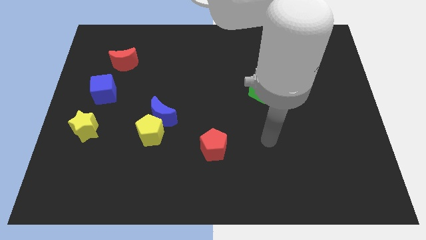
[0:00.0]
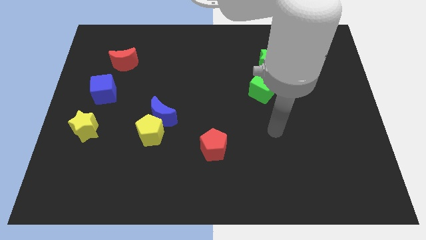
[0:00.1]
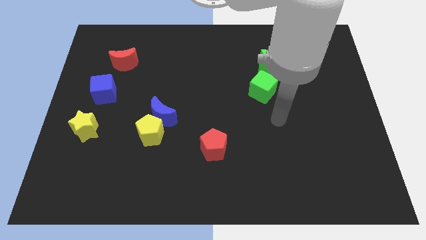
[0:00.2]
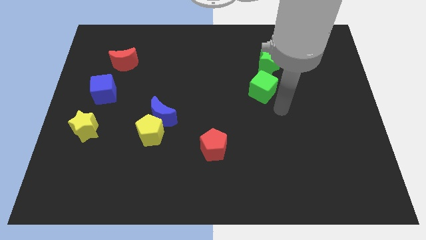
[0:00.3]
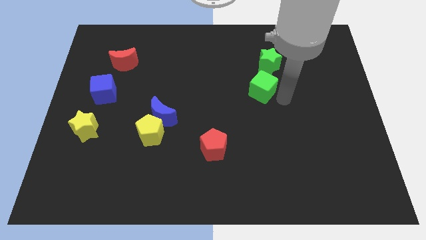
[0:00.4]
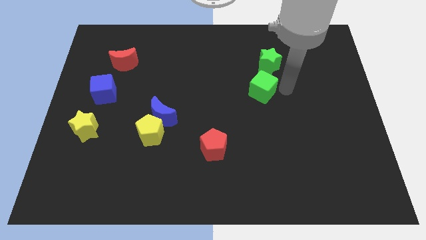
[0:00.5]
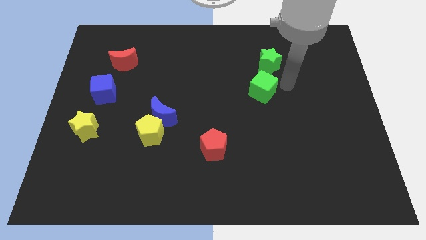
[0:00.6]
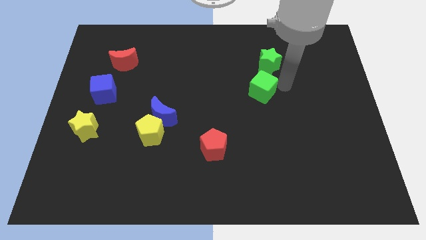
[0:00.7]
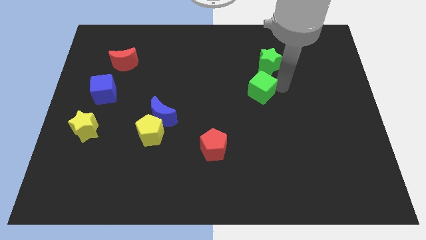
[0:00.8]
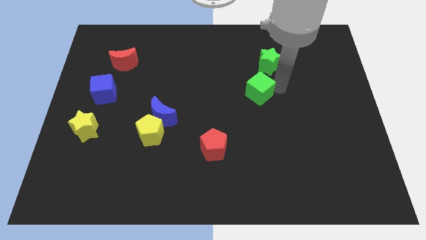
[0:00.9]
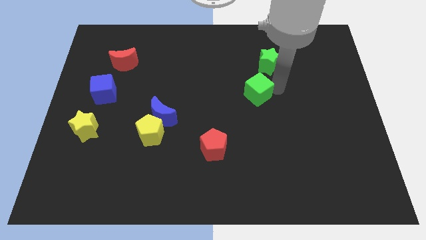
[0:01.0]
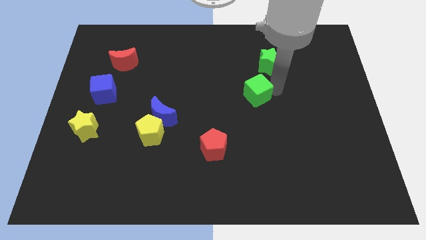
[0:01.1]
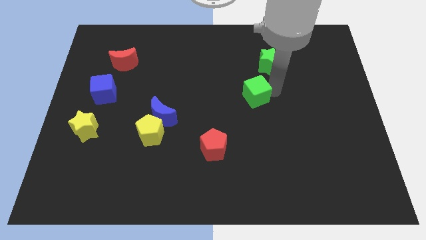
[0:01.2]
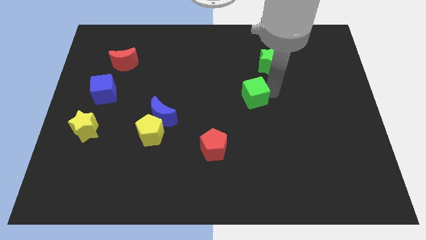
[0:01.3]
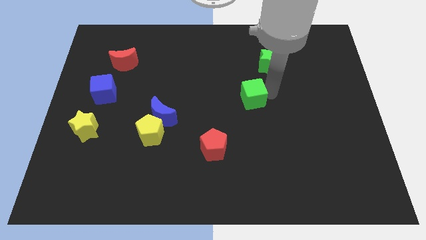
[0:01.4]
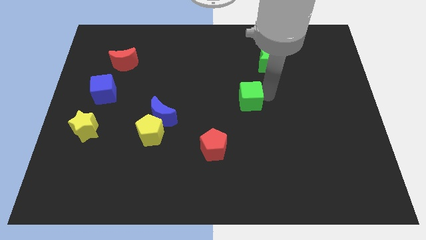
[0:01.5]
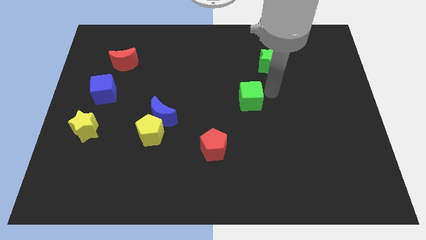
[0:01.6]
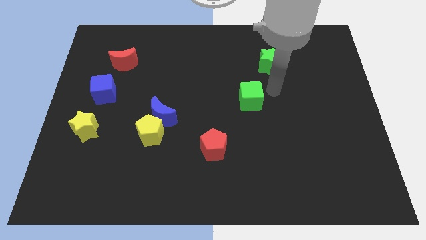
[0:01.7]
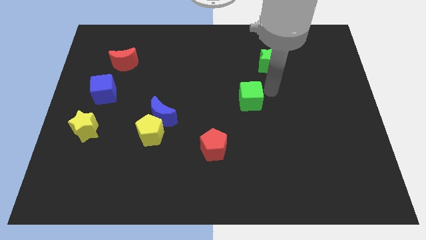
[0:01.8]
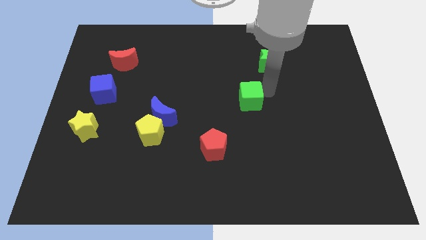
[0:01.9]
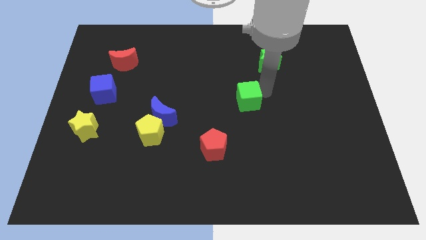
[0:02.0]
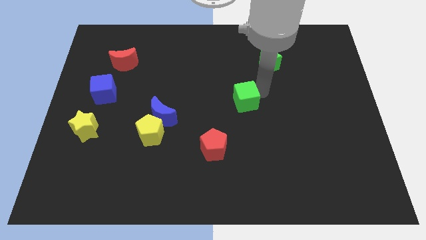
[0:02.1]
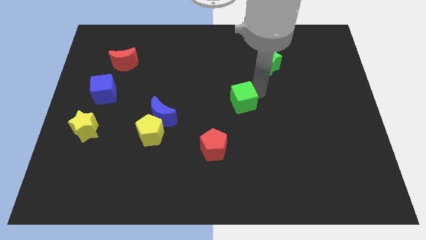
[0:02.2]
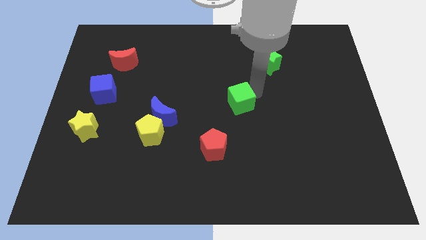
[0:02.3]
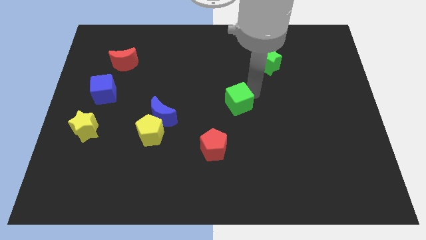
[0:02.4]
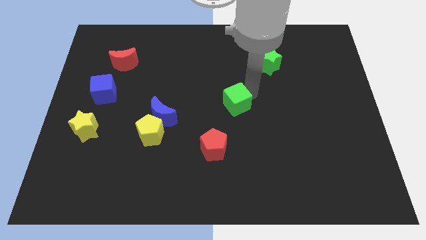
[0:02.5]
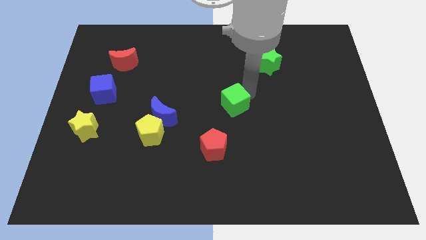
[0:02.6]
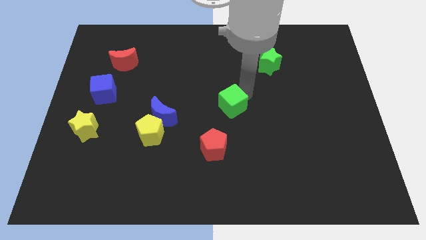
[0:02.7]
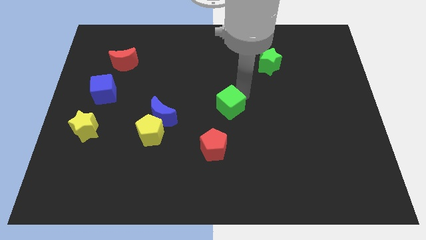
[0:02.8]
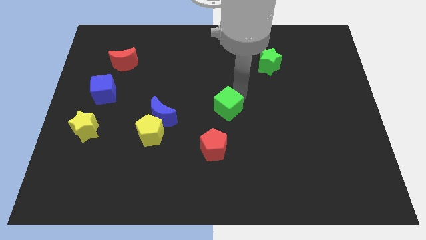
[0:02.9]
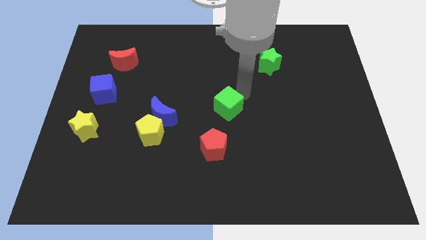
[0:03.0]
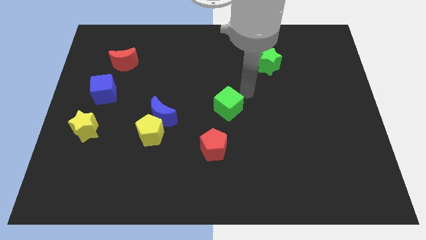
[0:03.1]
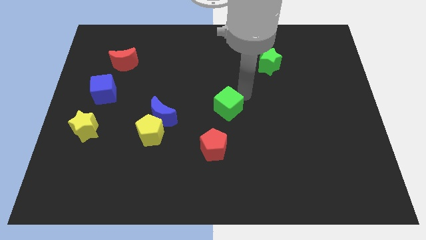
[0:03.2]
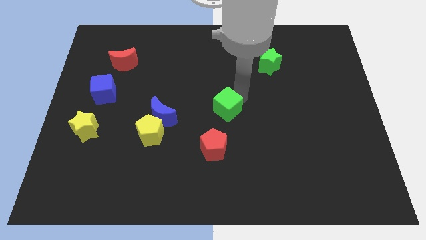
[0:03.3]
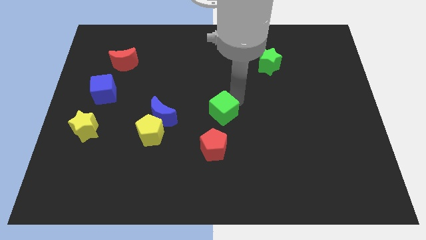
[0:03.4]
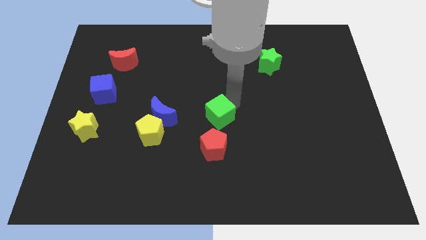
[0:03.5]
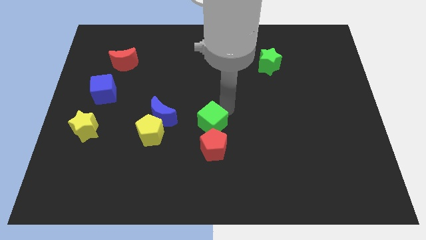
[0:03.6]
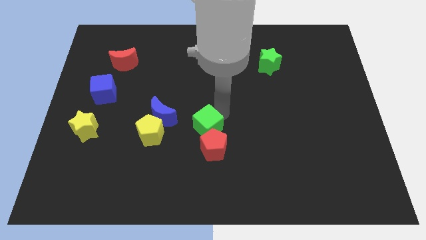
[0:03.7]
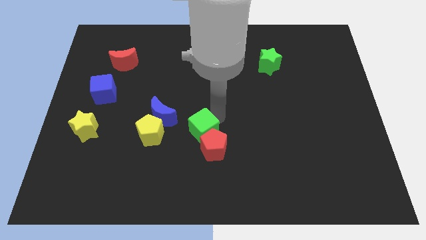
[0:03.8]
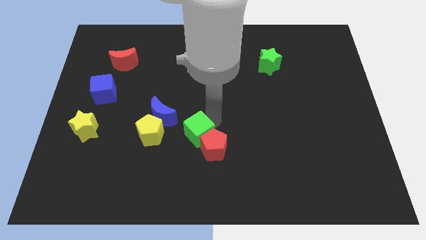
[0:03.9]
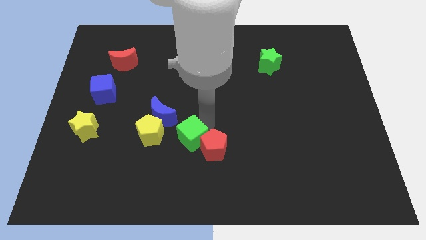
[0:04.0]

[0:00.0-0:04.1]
push the green cube down and then left

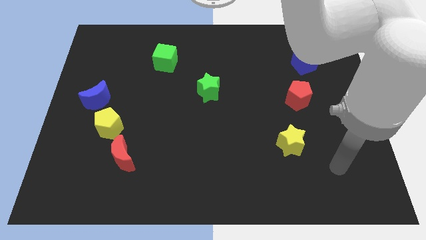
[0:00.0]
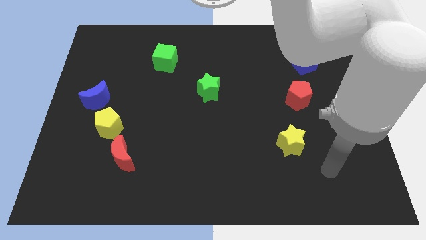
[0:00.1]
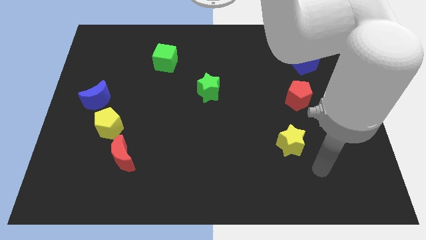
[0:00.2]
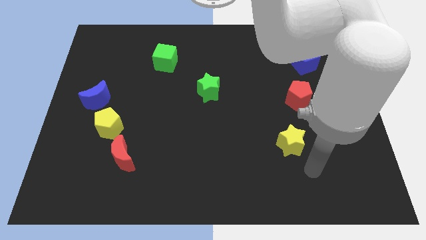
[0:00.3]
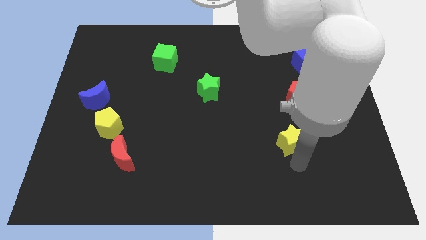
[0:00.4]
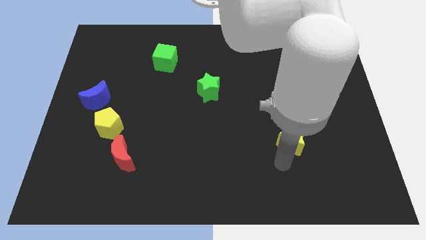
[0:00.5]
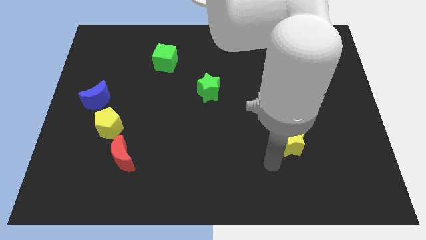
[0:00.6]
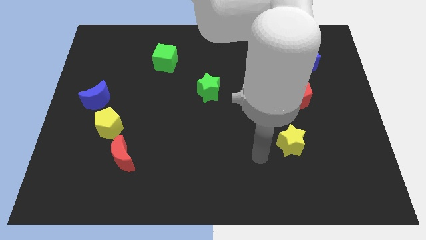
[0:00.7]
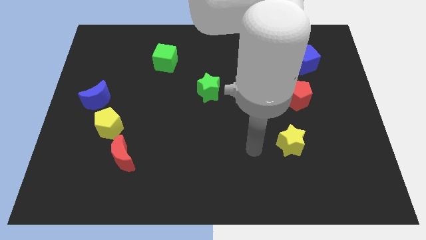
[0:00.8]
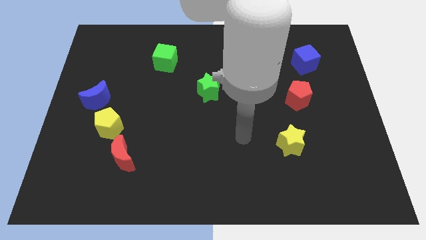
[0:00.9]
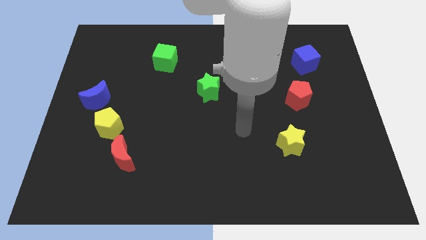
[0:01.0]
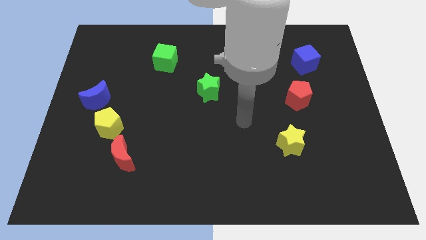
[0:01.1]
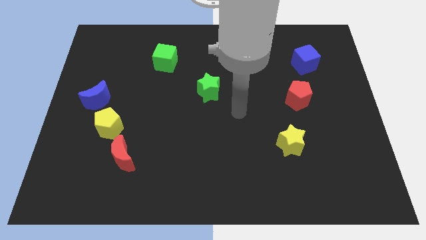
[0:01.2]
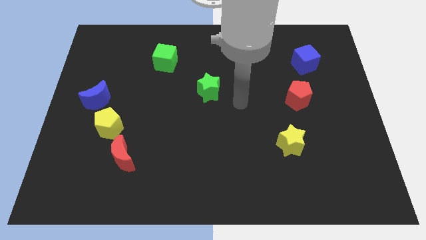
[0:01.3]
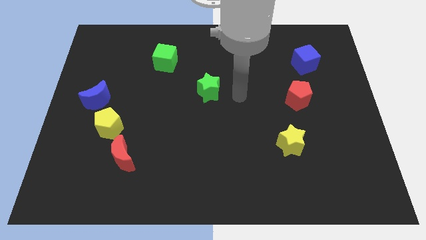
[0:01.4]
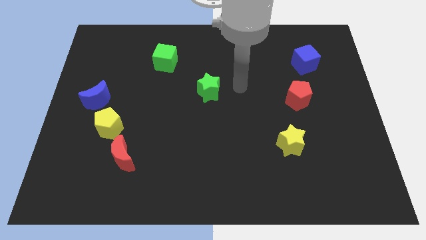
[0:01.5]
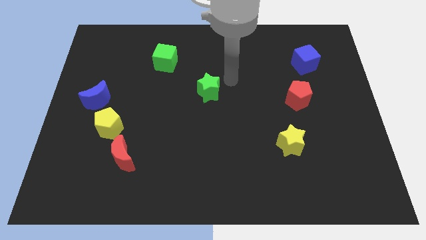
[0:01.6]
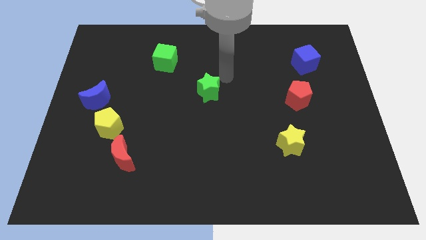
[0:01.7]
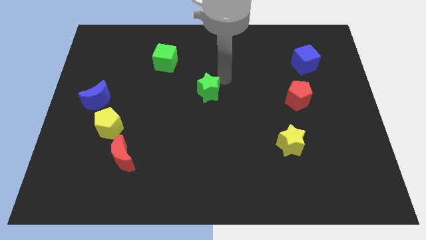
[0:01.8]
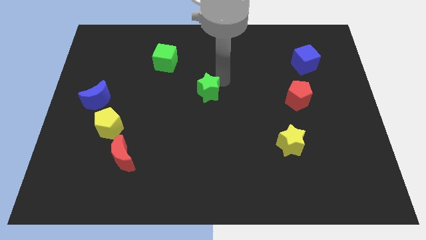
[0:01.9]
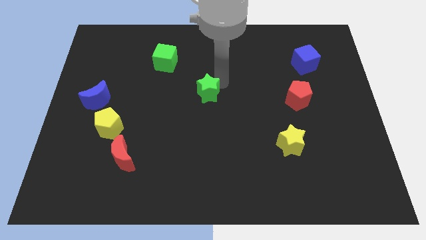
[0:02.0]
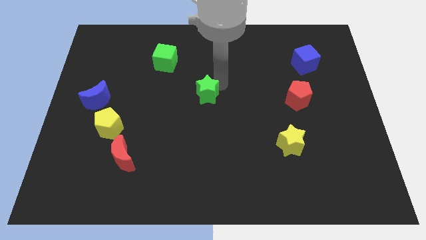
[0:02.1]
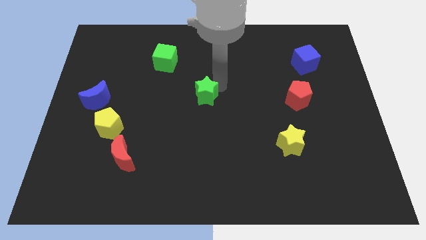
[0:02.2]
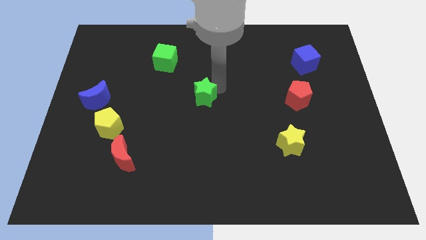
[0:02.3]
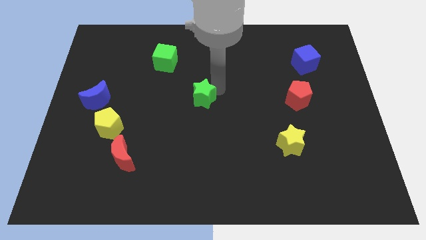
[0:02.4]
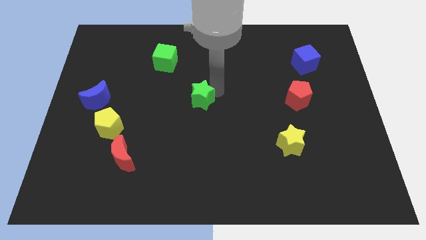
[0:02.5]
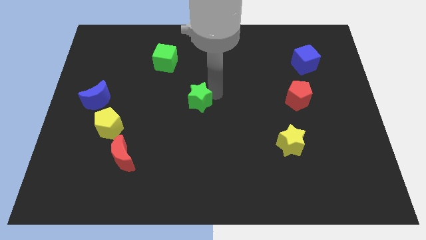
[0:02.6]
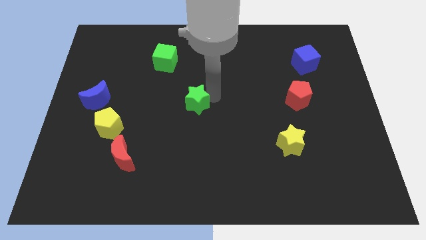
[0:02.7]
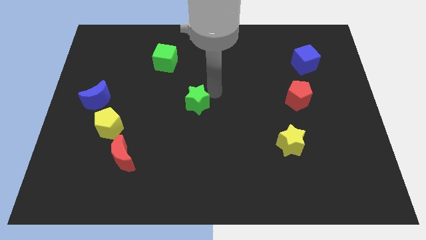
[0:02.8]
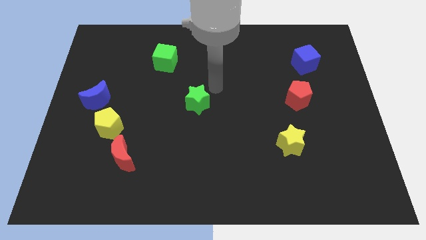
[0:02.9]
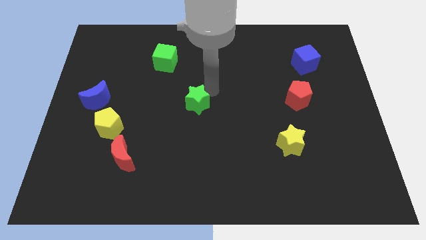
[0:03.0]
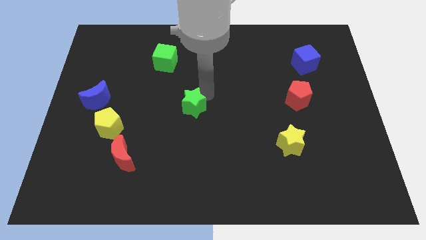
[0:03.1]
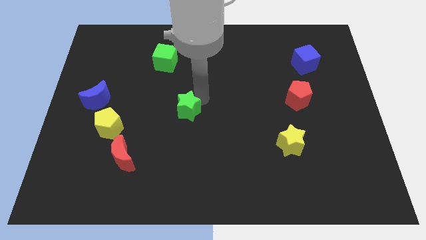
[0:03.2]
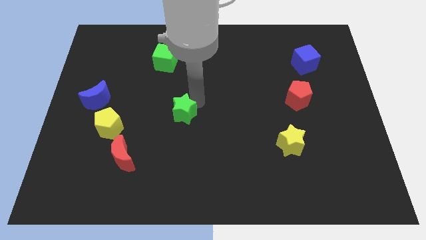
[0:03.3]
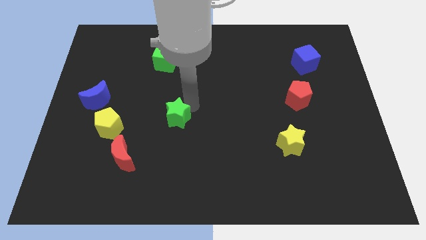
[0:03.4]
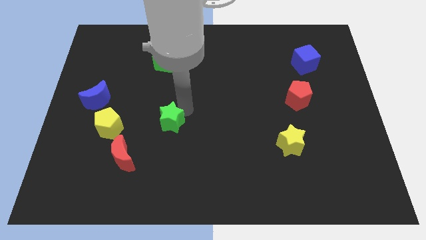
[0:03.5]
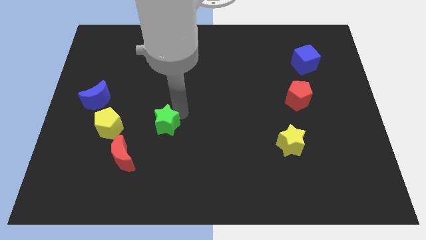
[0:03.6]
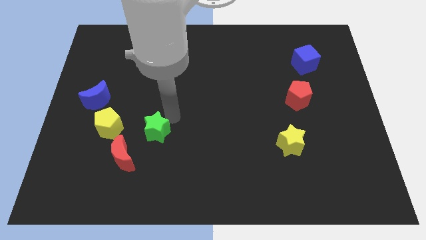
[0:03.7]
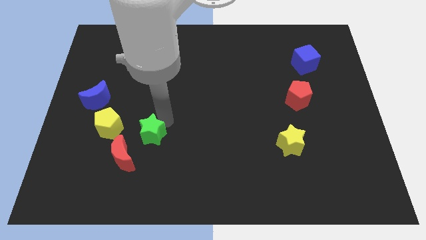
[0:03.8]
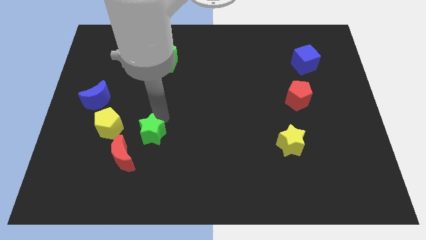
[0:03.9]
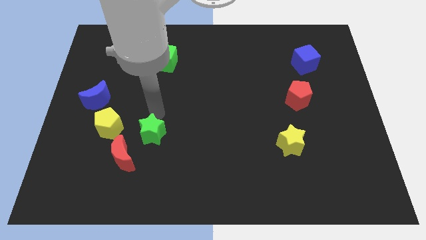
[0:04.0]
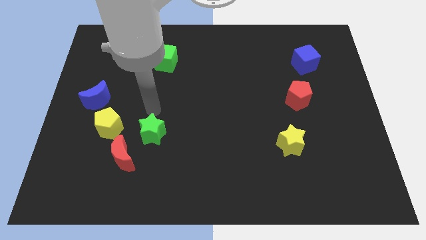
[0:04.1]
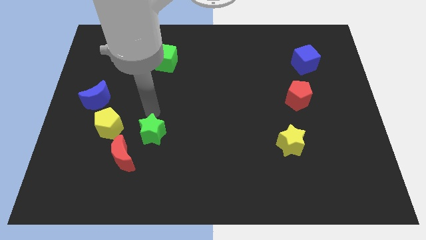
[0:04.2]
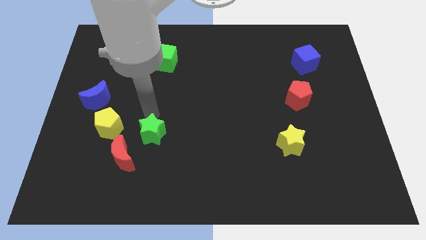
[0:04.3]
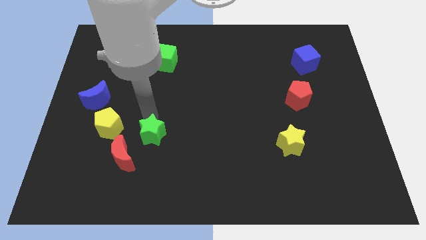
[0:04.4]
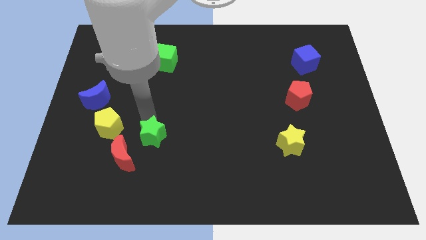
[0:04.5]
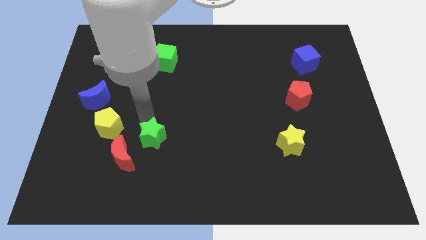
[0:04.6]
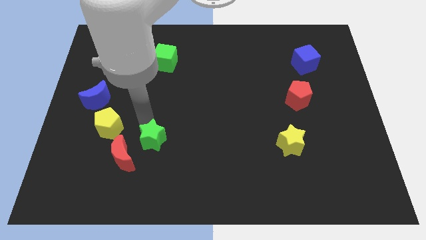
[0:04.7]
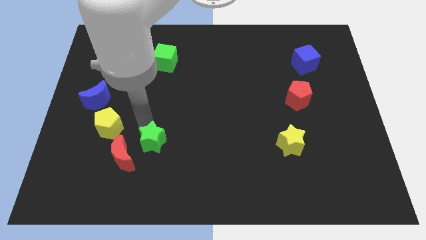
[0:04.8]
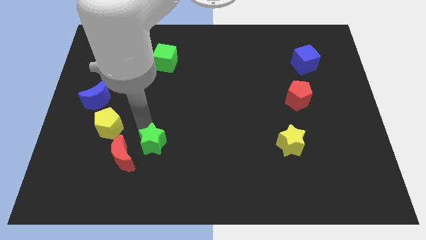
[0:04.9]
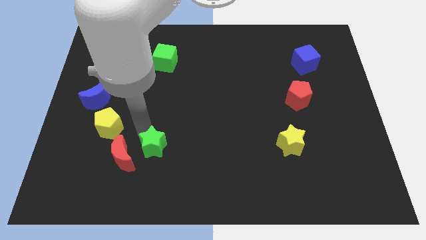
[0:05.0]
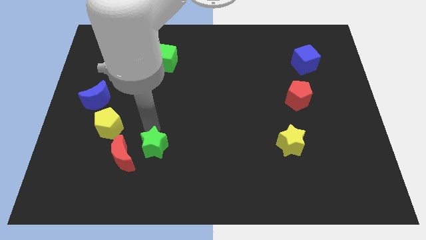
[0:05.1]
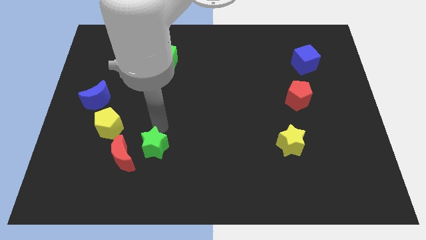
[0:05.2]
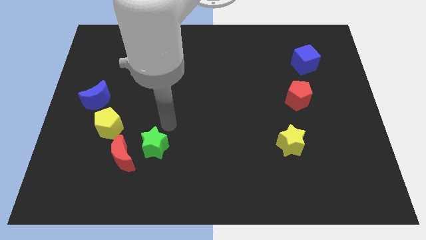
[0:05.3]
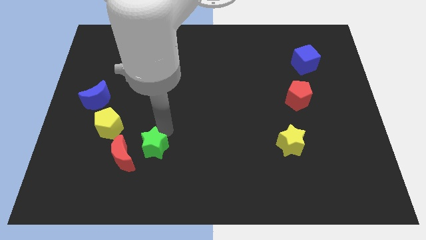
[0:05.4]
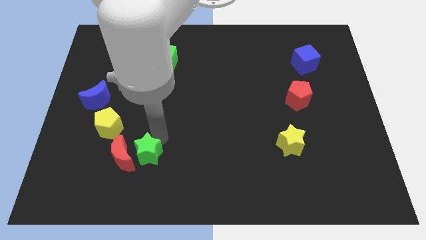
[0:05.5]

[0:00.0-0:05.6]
move the green star down and to the left
